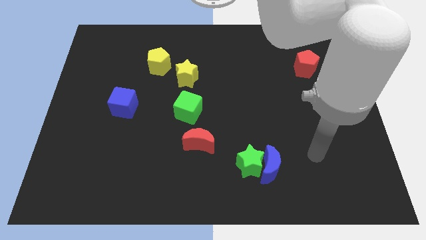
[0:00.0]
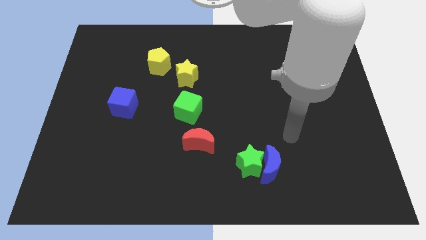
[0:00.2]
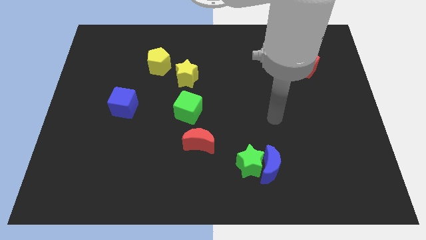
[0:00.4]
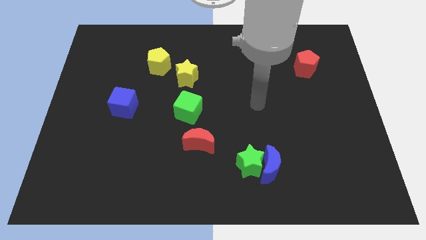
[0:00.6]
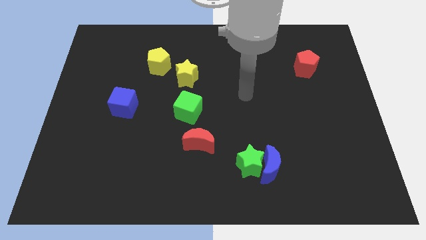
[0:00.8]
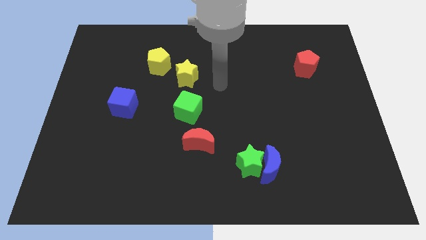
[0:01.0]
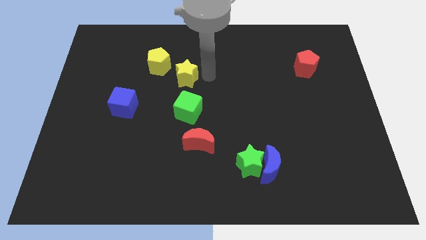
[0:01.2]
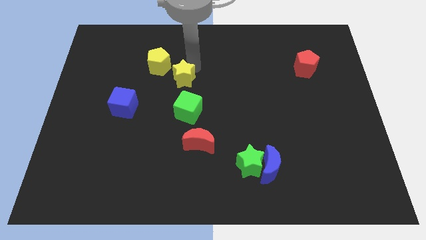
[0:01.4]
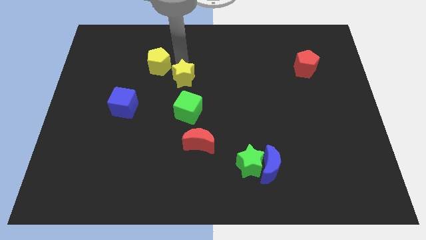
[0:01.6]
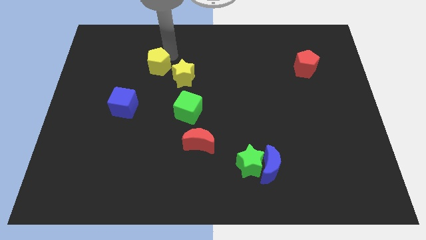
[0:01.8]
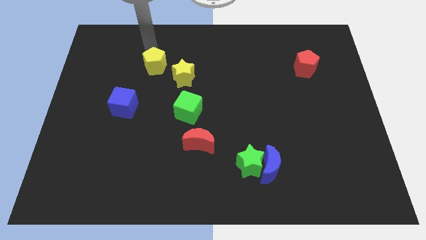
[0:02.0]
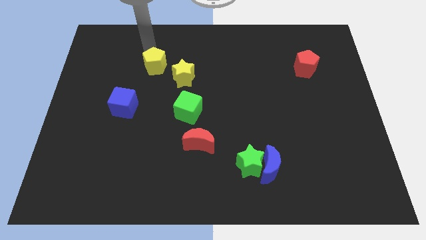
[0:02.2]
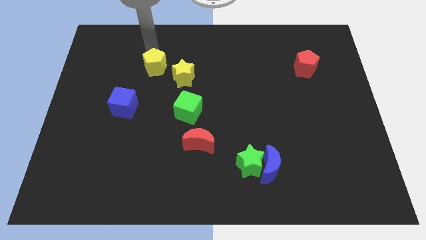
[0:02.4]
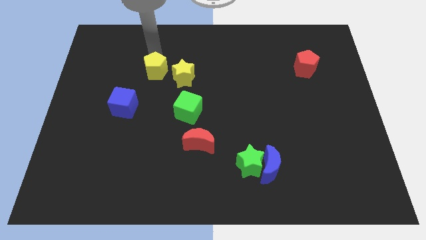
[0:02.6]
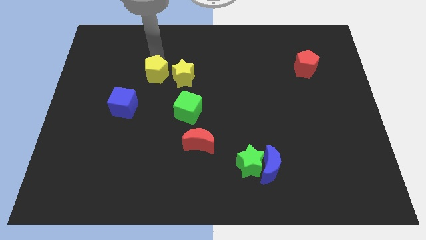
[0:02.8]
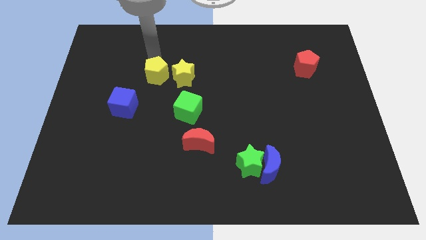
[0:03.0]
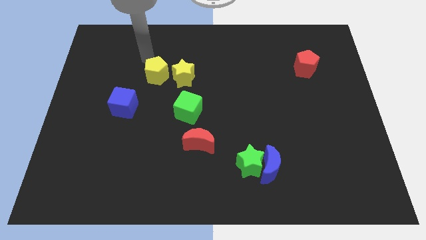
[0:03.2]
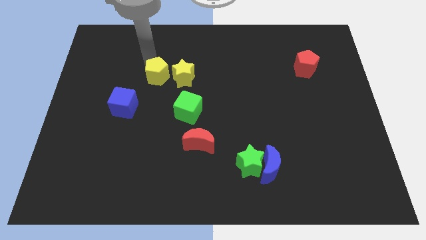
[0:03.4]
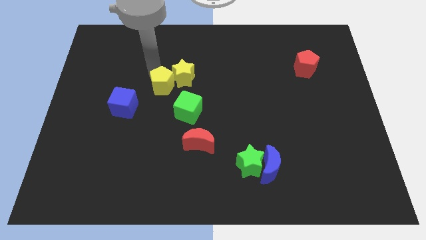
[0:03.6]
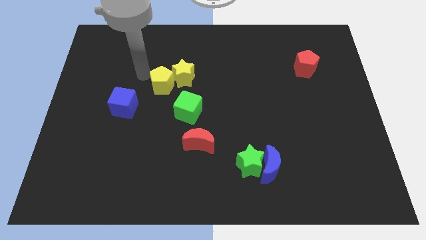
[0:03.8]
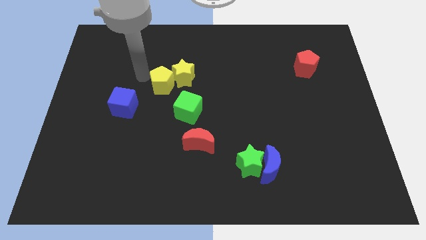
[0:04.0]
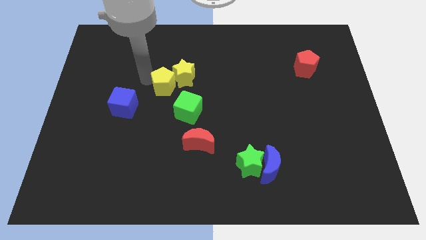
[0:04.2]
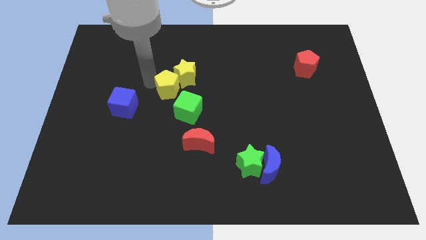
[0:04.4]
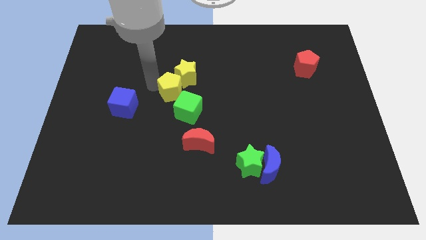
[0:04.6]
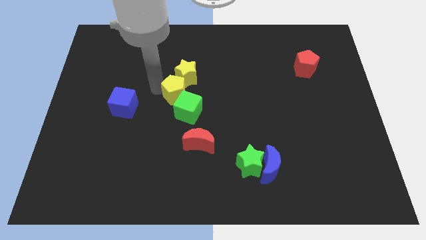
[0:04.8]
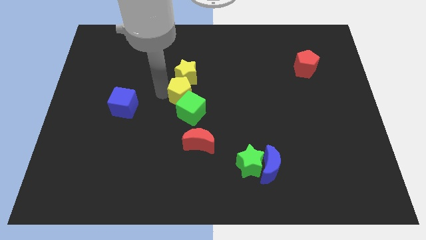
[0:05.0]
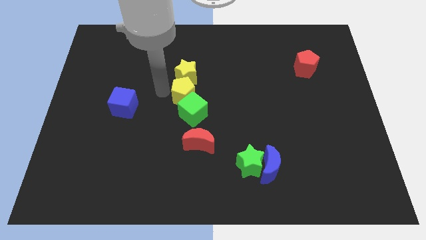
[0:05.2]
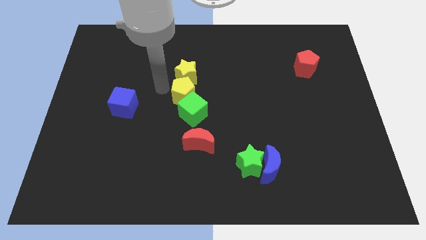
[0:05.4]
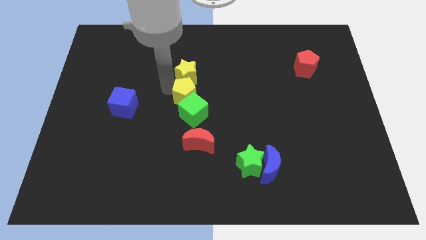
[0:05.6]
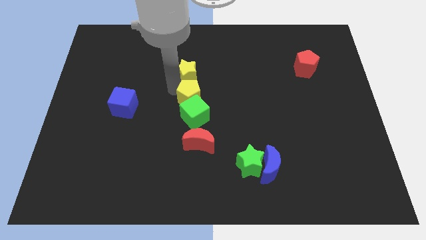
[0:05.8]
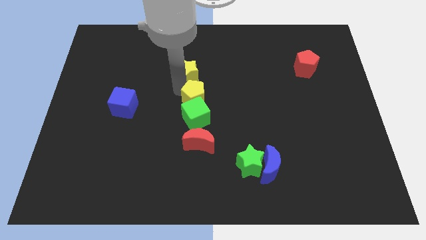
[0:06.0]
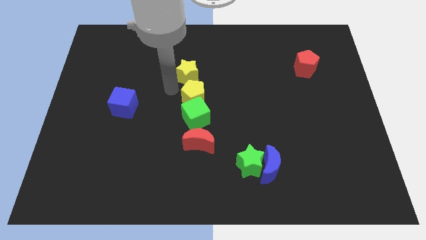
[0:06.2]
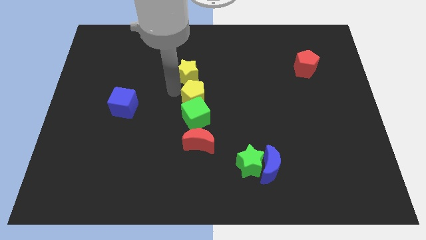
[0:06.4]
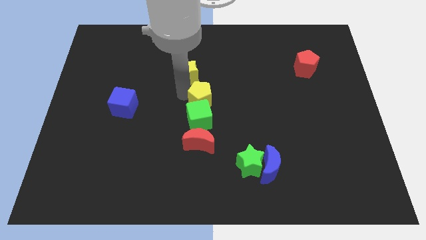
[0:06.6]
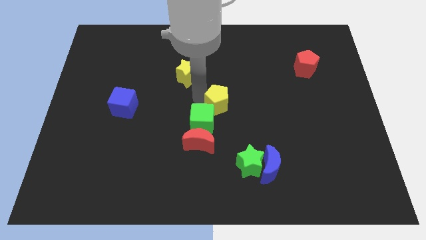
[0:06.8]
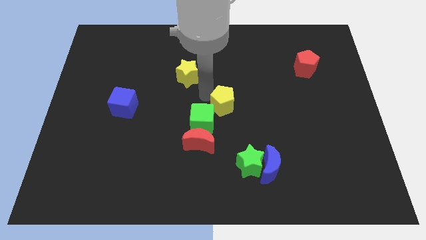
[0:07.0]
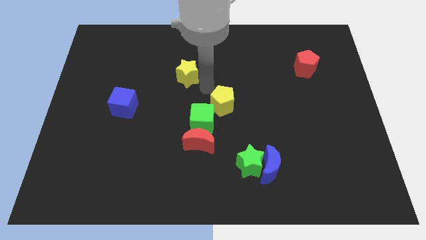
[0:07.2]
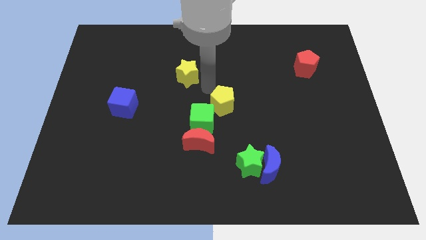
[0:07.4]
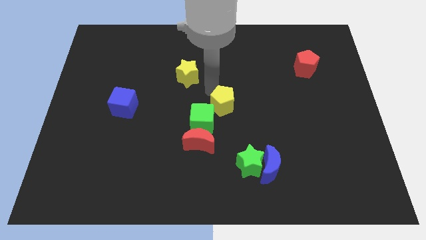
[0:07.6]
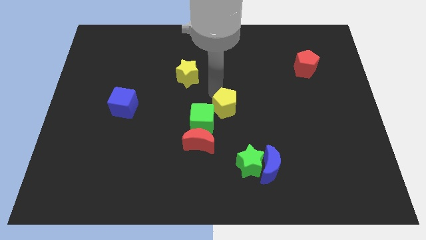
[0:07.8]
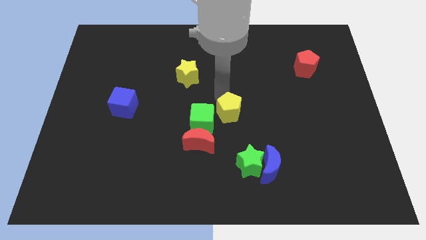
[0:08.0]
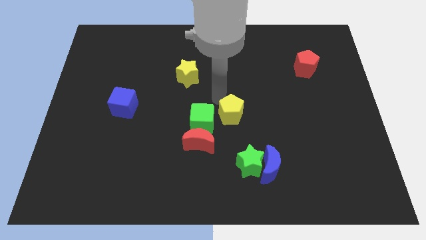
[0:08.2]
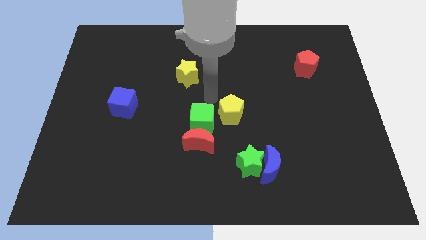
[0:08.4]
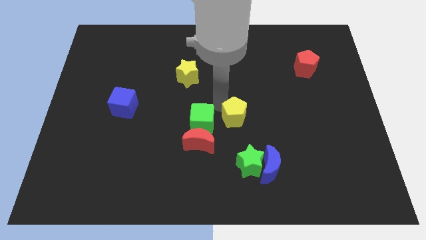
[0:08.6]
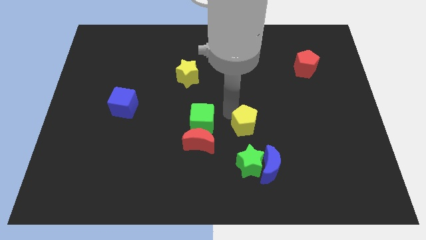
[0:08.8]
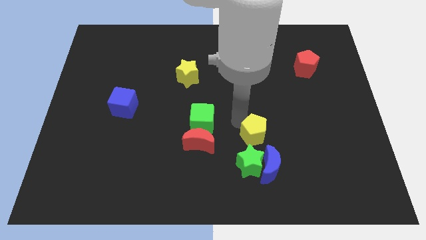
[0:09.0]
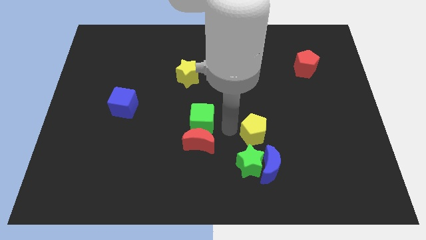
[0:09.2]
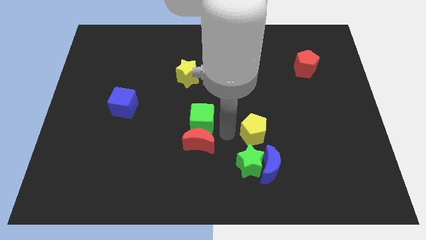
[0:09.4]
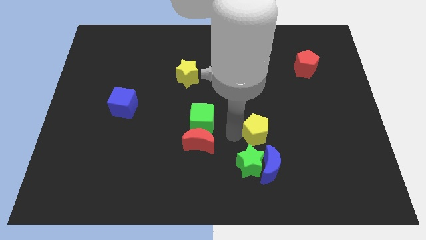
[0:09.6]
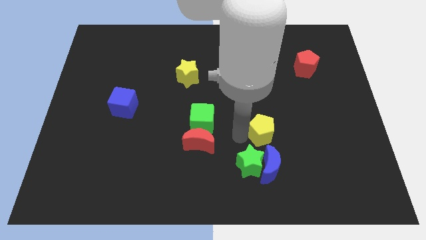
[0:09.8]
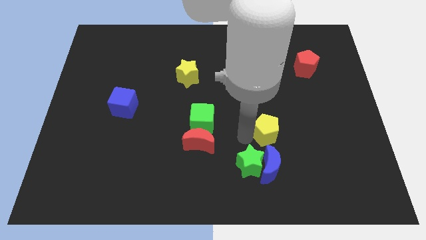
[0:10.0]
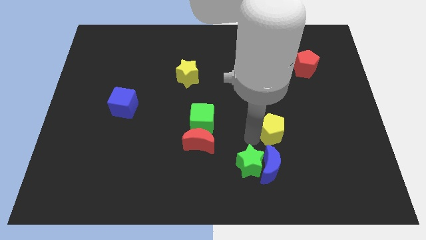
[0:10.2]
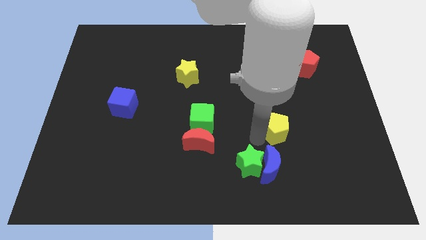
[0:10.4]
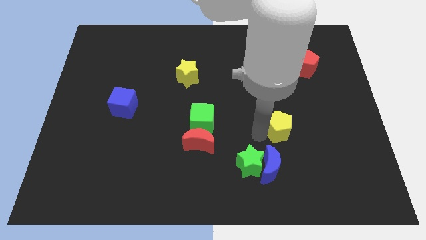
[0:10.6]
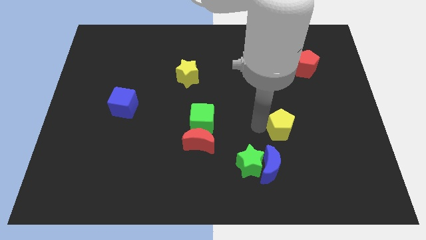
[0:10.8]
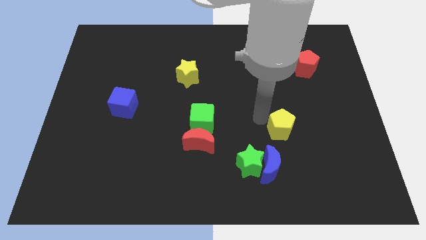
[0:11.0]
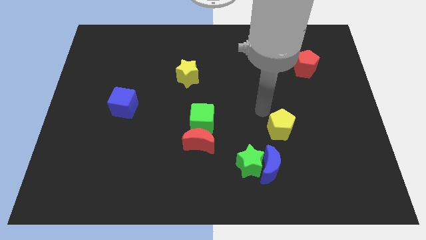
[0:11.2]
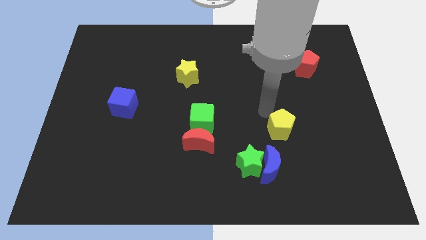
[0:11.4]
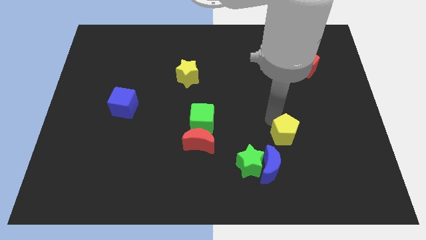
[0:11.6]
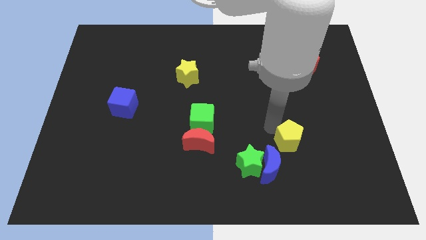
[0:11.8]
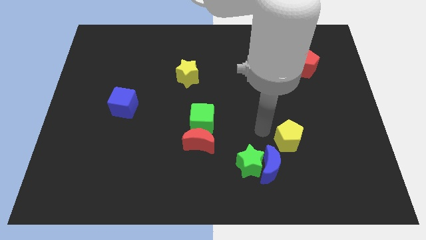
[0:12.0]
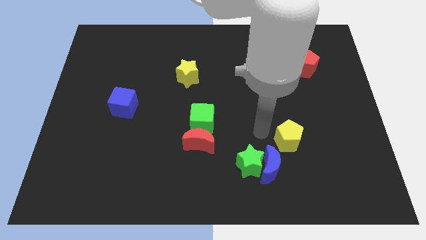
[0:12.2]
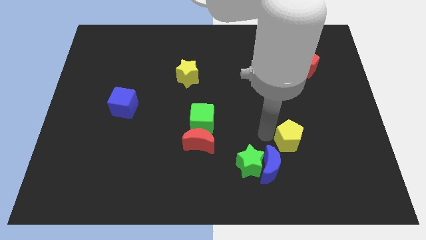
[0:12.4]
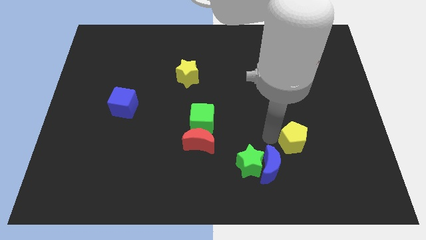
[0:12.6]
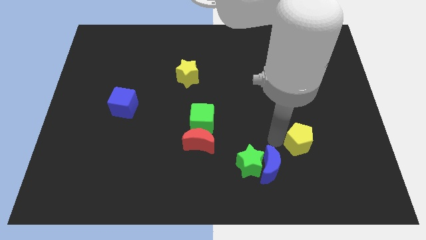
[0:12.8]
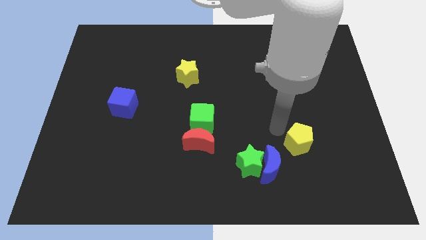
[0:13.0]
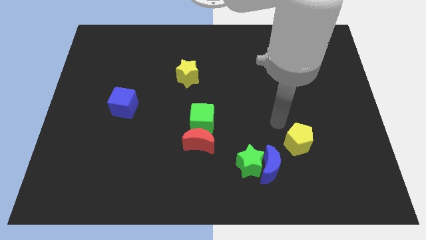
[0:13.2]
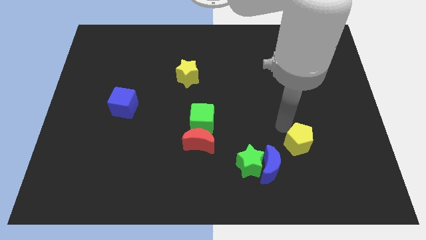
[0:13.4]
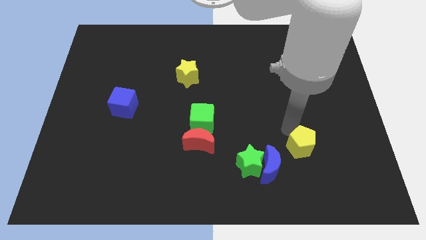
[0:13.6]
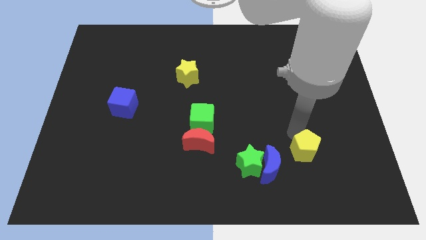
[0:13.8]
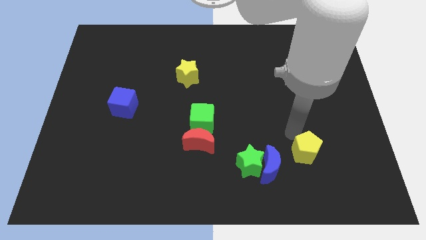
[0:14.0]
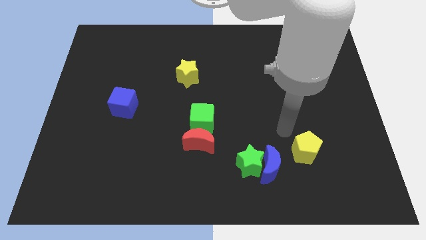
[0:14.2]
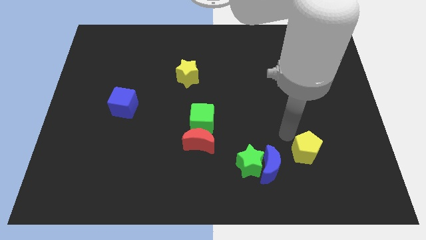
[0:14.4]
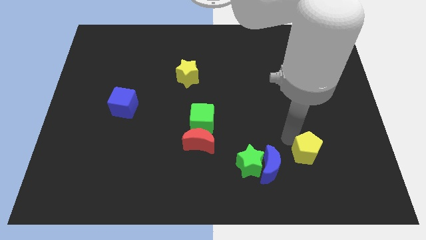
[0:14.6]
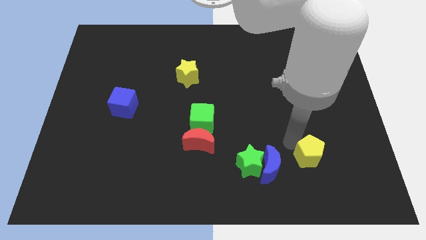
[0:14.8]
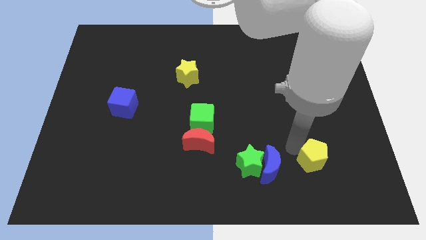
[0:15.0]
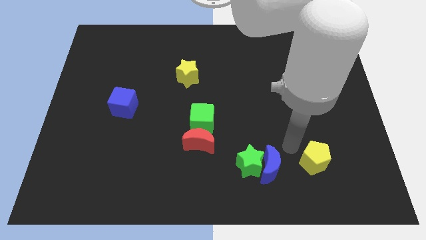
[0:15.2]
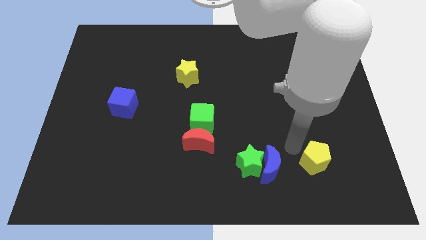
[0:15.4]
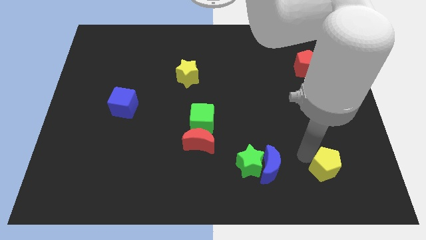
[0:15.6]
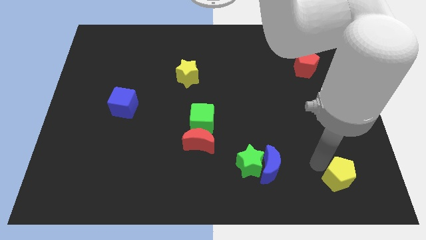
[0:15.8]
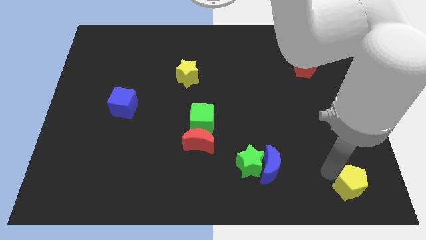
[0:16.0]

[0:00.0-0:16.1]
put the yellow pentagon to the bottom right corner
